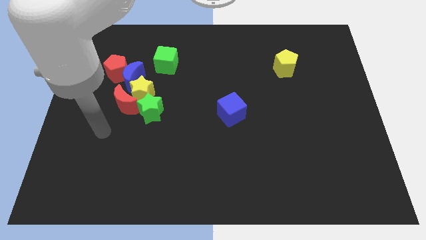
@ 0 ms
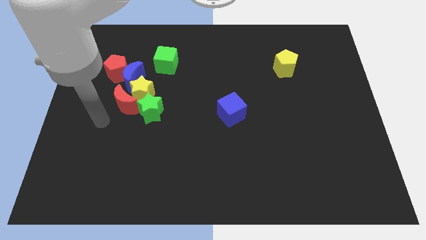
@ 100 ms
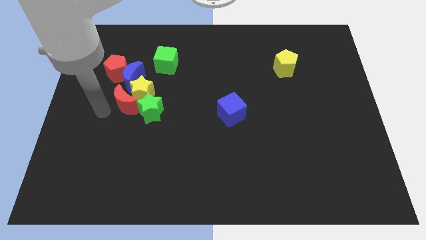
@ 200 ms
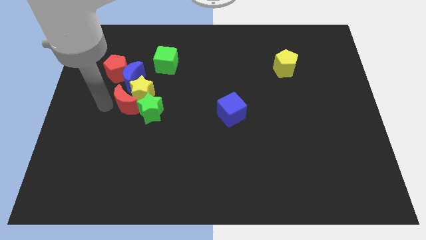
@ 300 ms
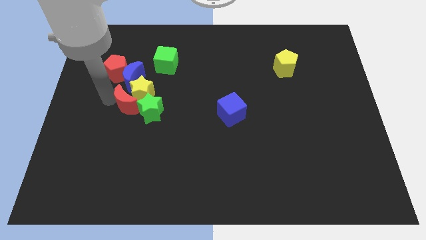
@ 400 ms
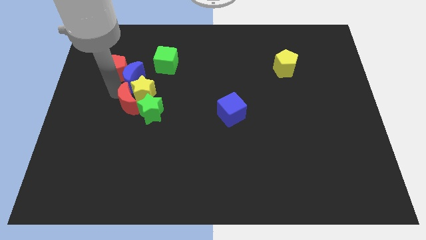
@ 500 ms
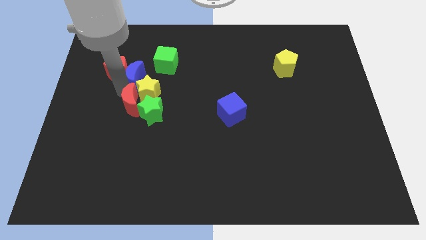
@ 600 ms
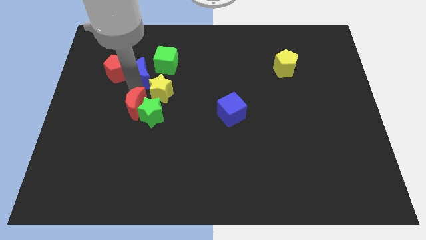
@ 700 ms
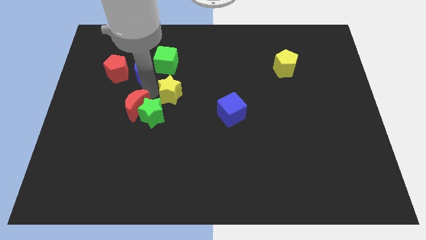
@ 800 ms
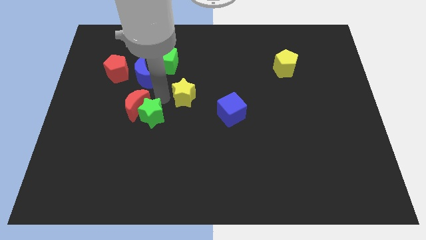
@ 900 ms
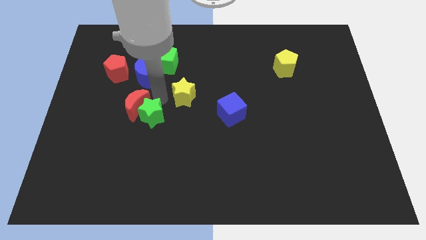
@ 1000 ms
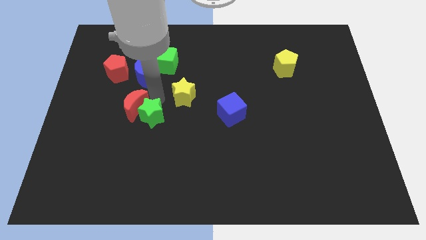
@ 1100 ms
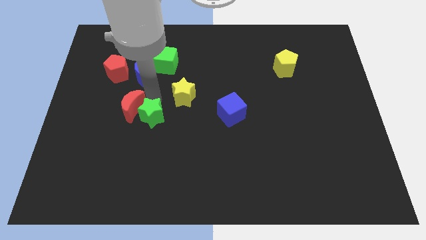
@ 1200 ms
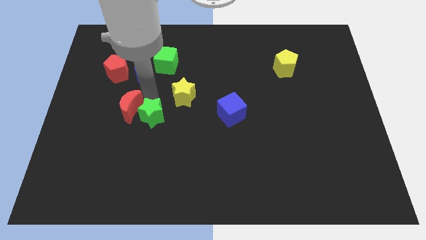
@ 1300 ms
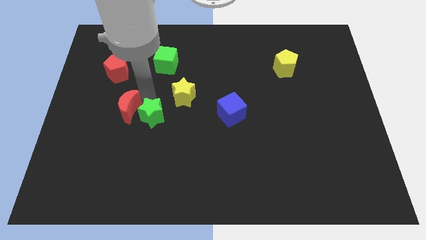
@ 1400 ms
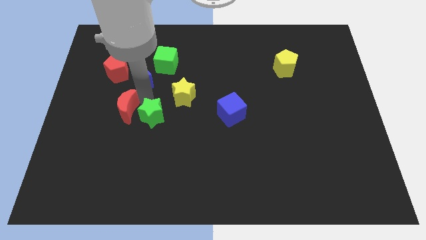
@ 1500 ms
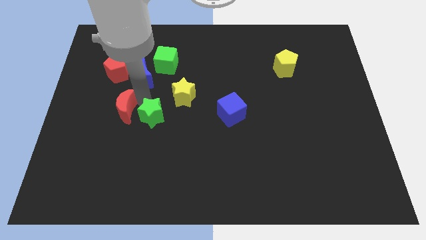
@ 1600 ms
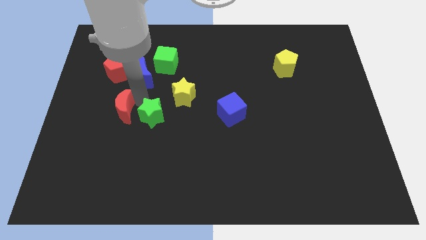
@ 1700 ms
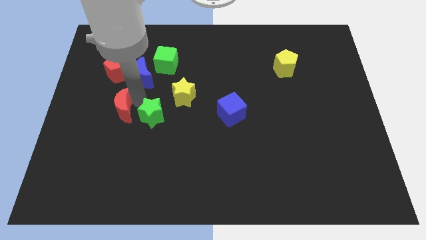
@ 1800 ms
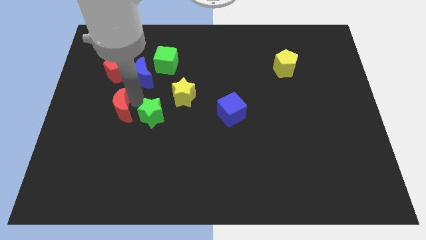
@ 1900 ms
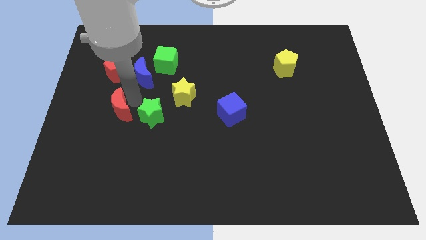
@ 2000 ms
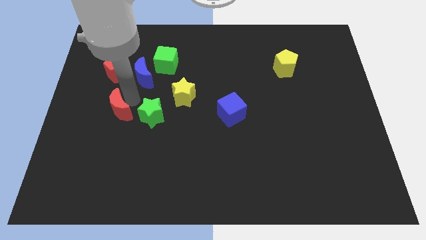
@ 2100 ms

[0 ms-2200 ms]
pull the red moon apart from the yellow star, green star, and blue moon

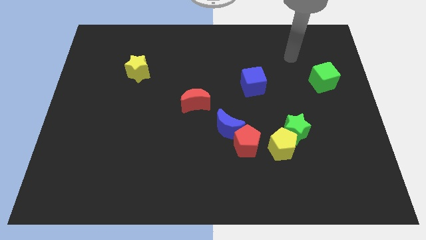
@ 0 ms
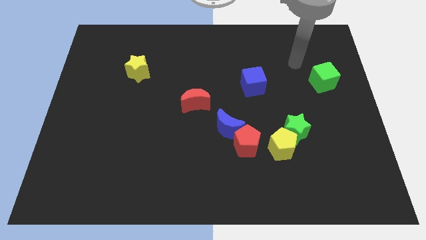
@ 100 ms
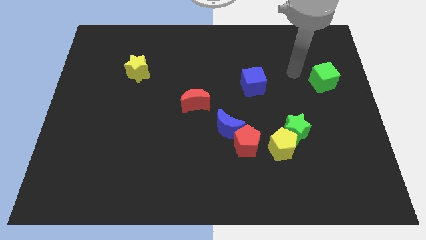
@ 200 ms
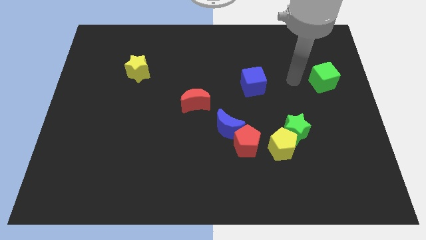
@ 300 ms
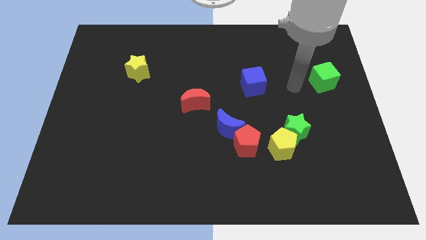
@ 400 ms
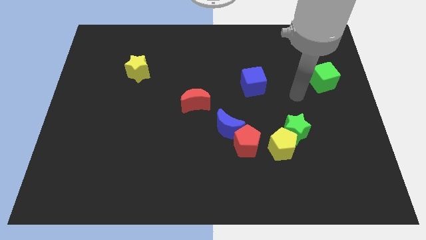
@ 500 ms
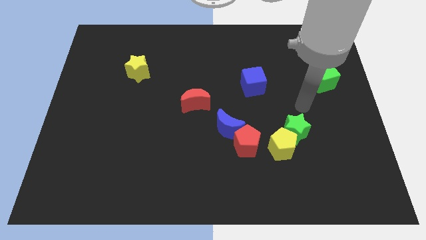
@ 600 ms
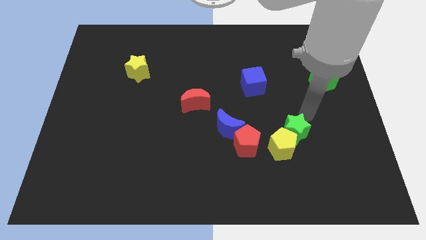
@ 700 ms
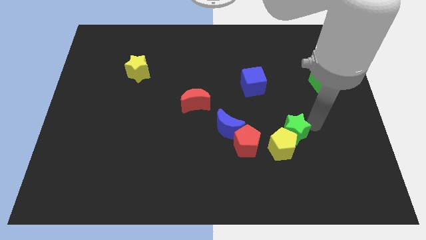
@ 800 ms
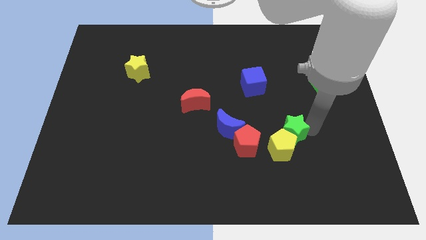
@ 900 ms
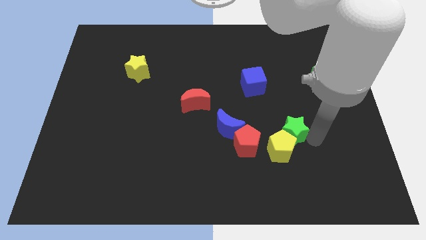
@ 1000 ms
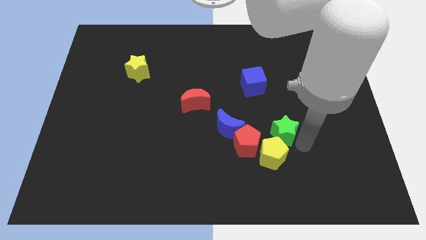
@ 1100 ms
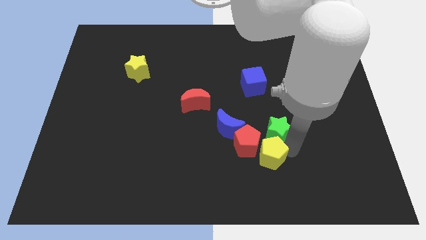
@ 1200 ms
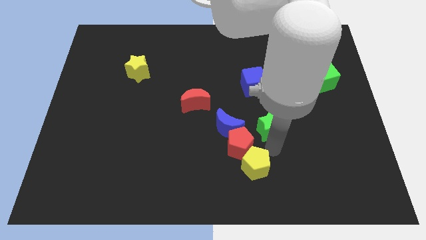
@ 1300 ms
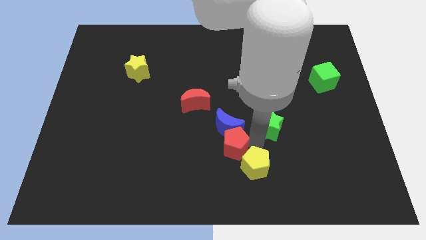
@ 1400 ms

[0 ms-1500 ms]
pull the green star apart from the yellow pentagon

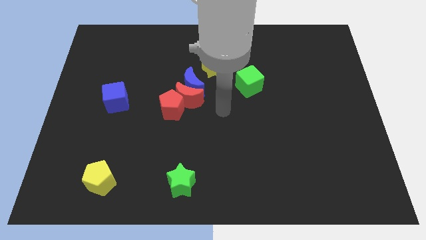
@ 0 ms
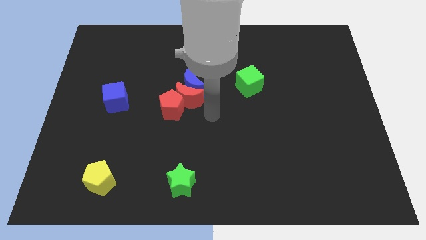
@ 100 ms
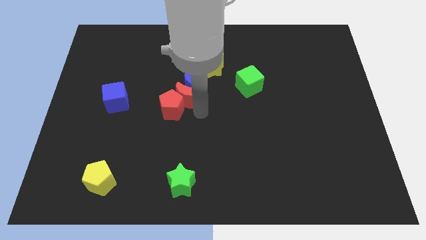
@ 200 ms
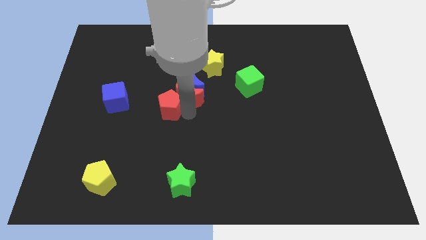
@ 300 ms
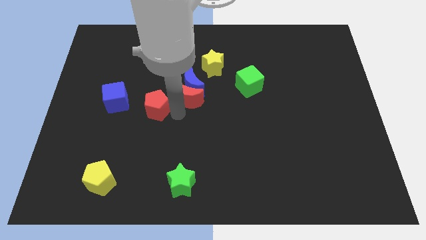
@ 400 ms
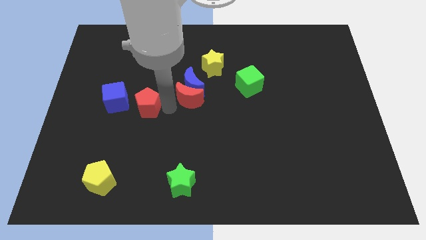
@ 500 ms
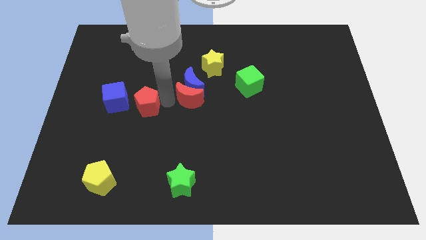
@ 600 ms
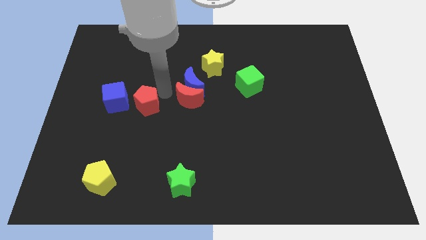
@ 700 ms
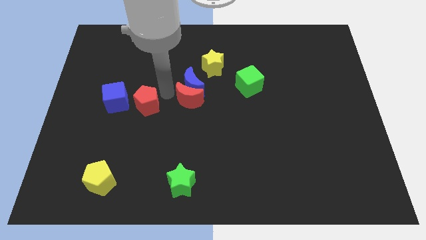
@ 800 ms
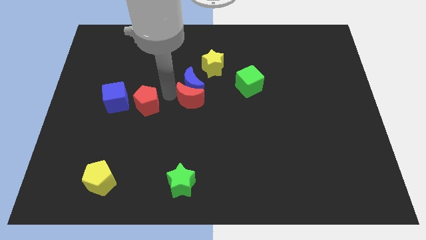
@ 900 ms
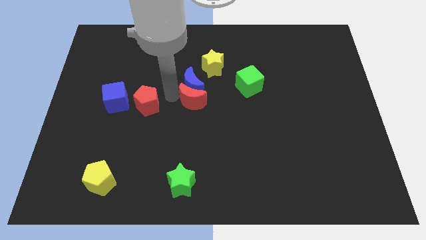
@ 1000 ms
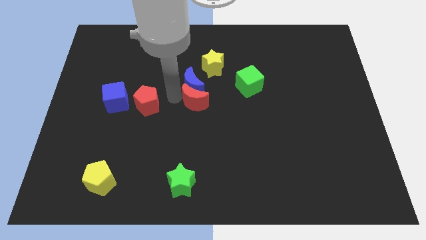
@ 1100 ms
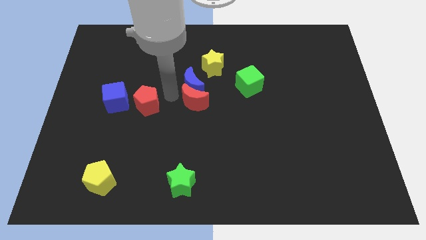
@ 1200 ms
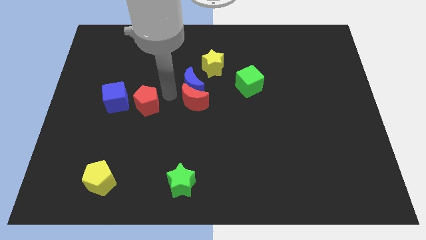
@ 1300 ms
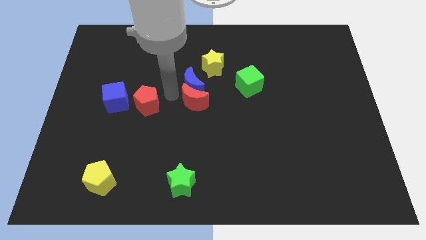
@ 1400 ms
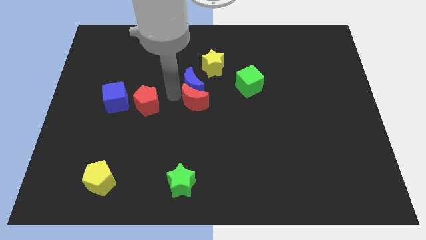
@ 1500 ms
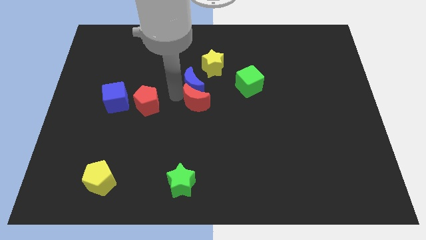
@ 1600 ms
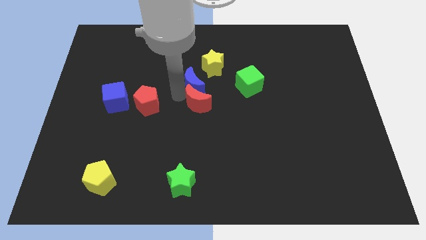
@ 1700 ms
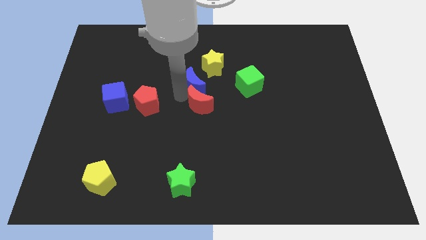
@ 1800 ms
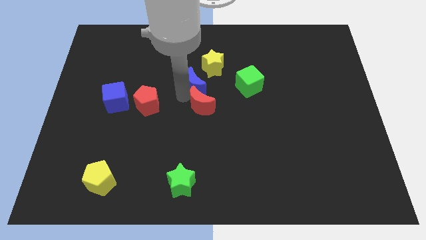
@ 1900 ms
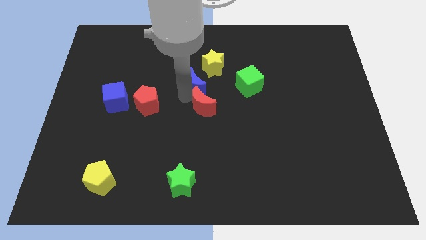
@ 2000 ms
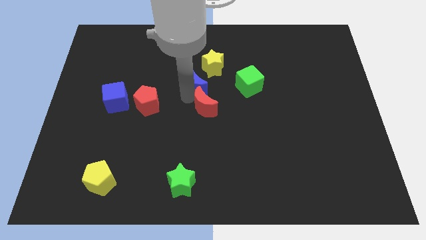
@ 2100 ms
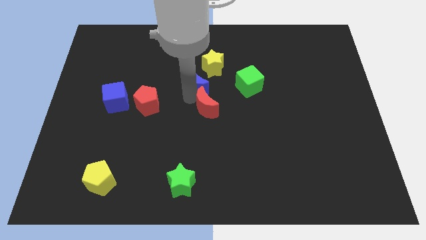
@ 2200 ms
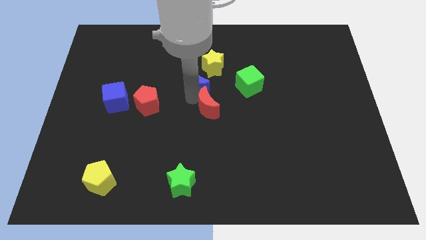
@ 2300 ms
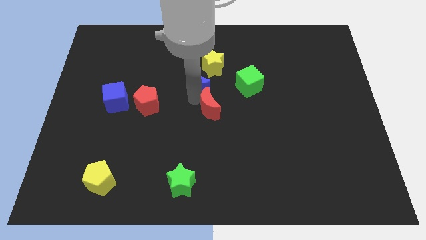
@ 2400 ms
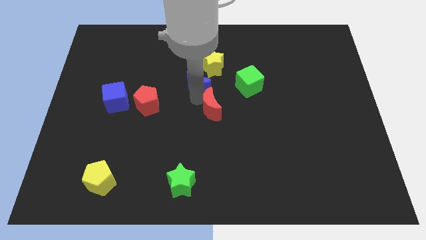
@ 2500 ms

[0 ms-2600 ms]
pull the red moon apart from the blue moon and red pentagon

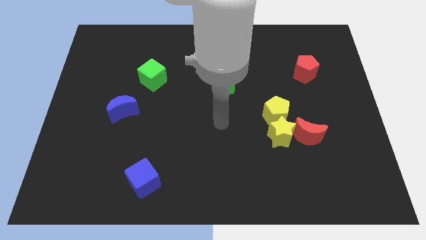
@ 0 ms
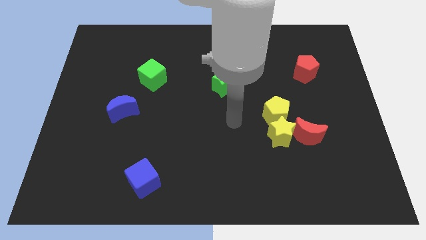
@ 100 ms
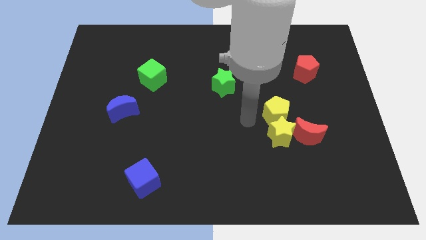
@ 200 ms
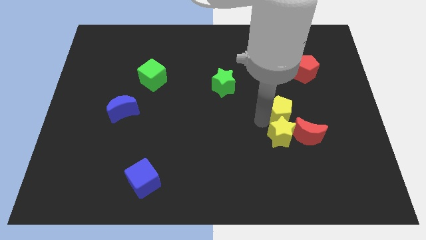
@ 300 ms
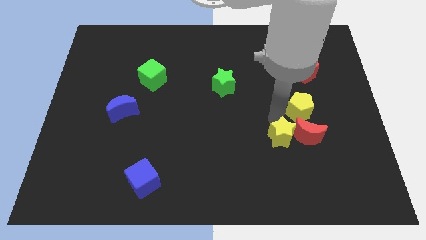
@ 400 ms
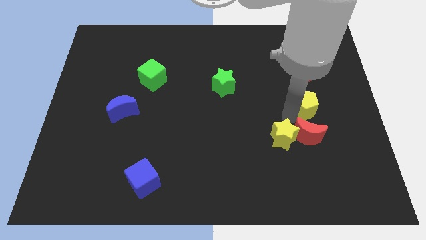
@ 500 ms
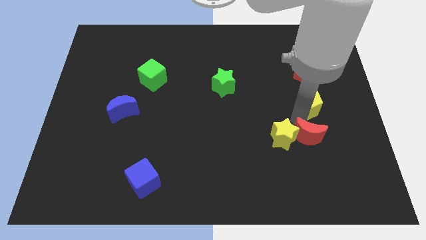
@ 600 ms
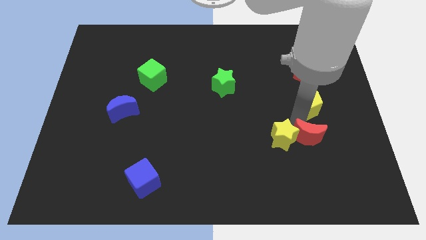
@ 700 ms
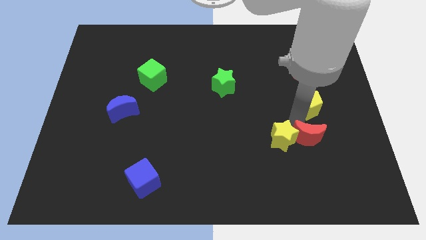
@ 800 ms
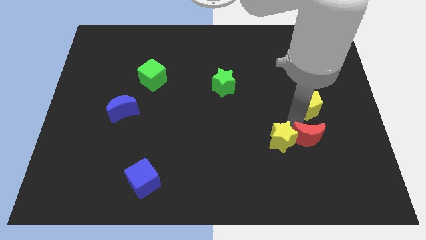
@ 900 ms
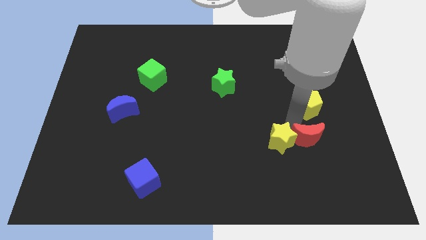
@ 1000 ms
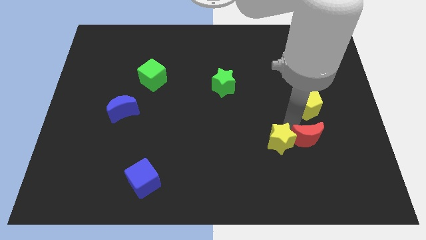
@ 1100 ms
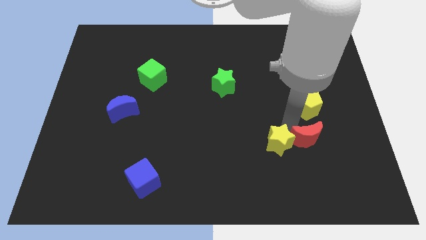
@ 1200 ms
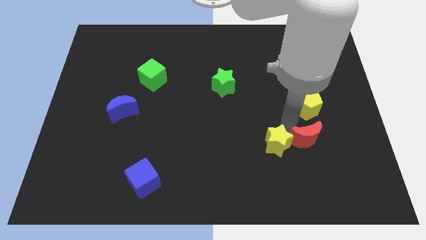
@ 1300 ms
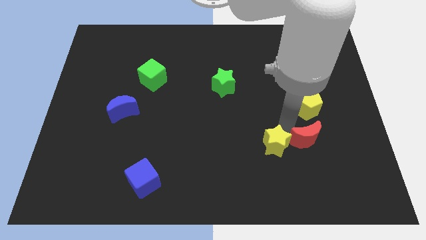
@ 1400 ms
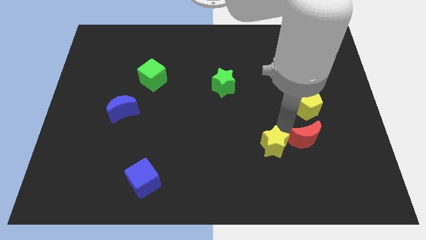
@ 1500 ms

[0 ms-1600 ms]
move the yellow star away from the yellow pentagon and red moon

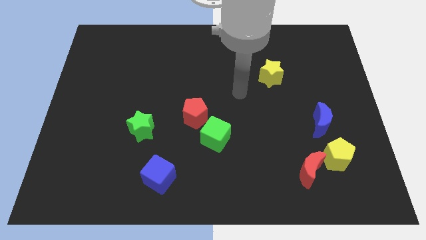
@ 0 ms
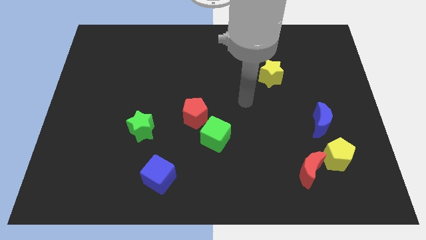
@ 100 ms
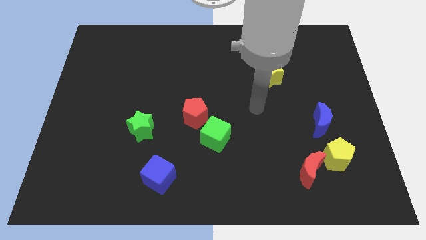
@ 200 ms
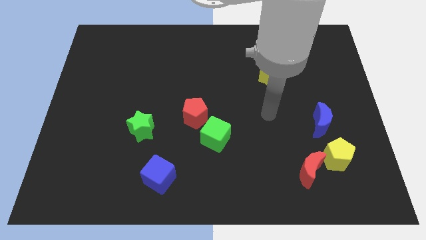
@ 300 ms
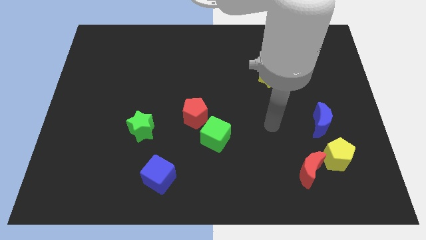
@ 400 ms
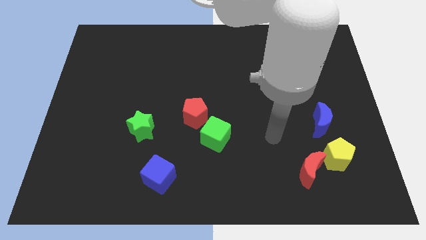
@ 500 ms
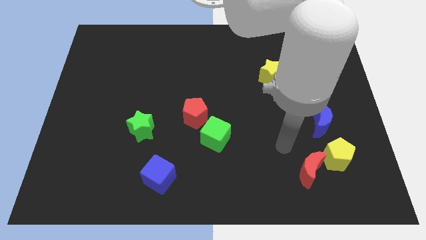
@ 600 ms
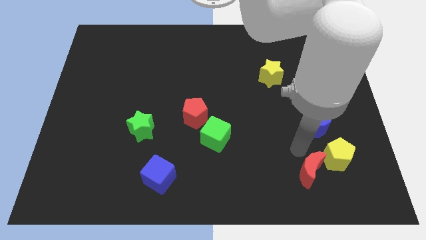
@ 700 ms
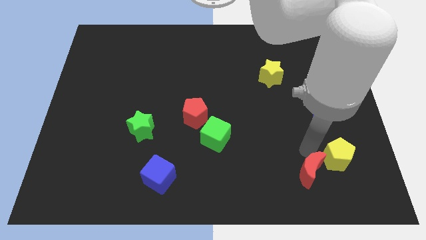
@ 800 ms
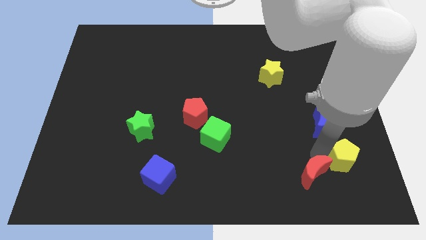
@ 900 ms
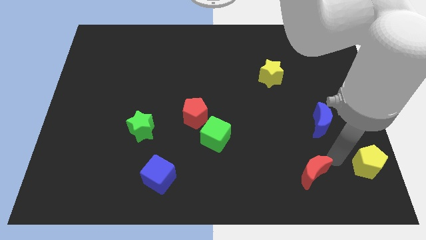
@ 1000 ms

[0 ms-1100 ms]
pull the red moon apart from the yellow pentagon

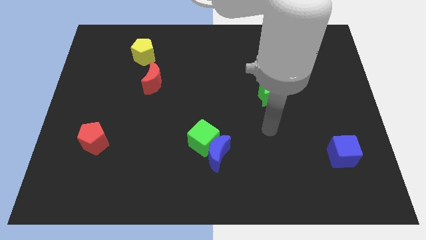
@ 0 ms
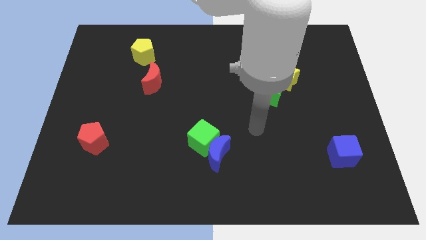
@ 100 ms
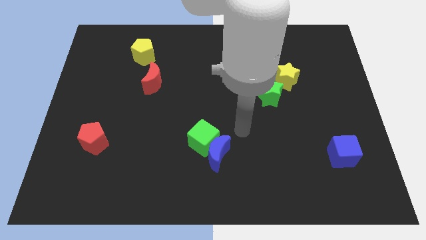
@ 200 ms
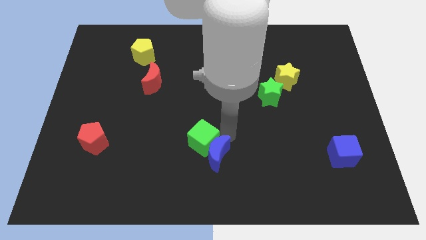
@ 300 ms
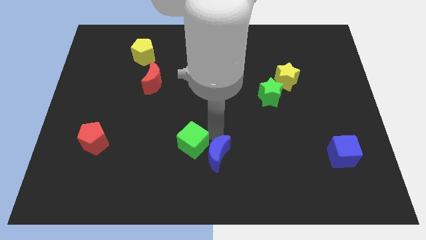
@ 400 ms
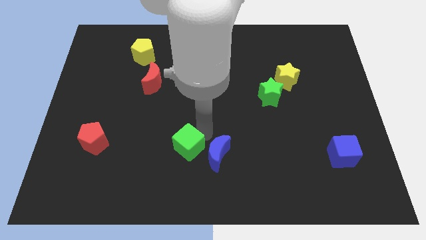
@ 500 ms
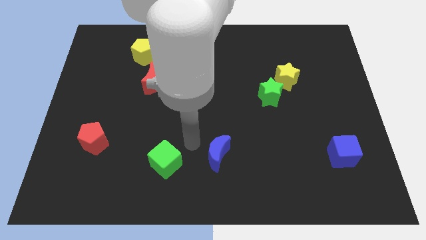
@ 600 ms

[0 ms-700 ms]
move the blue moon away from the green cube
